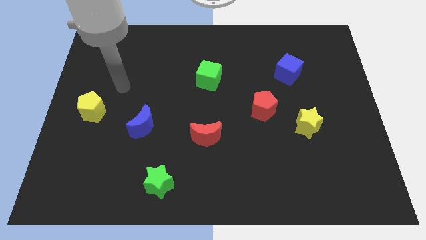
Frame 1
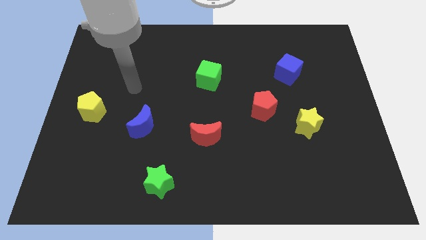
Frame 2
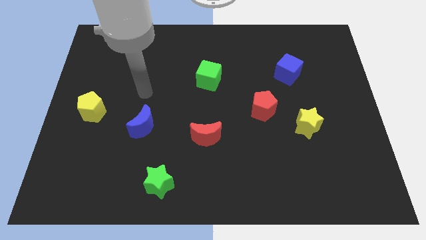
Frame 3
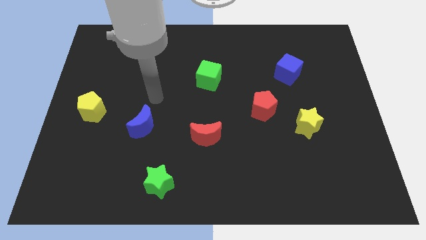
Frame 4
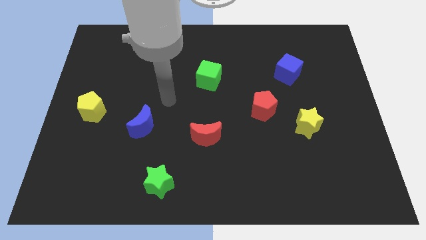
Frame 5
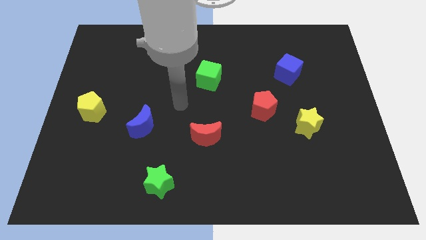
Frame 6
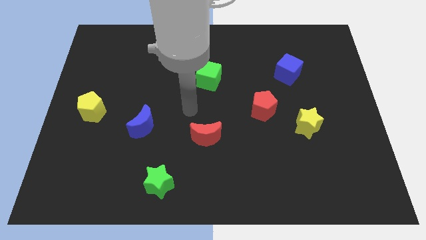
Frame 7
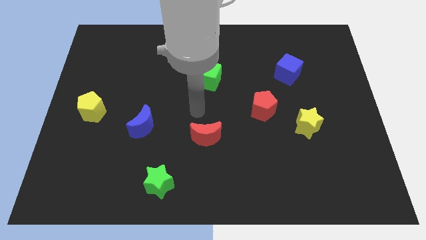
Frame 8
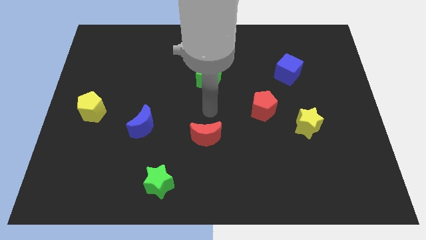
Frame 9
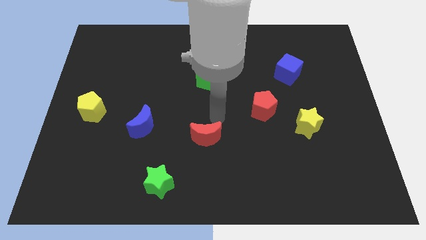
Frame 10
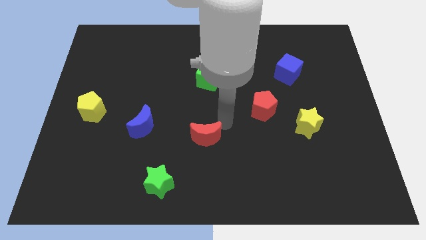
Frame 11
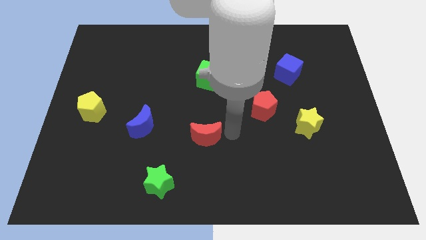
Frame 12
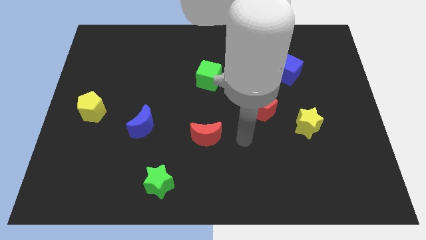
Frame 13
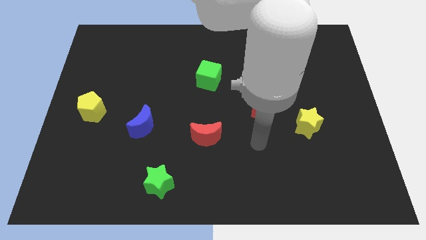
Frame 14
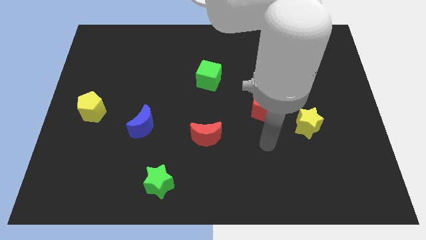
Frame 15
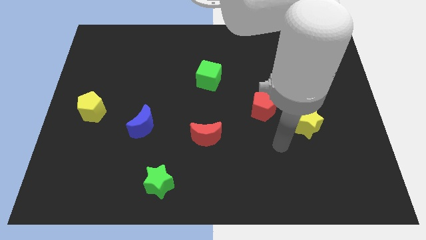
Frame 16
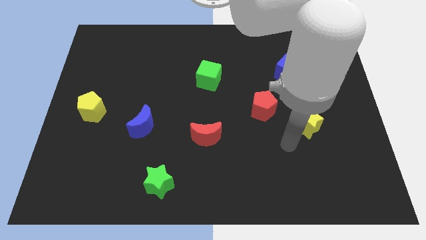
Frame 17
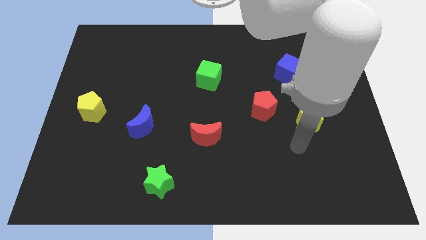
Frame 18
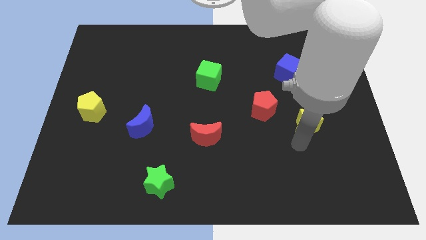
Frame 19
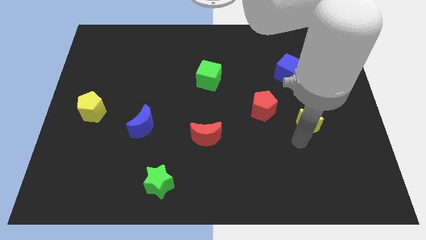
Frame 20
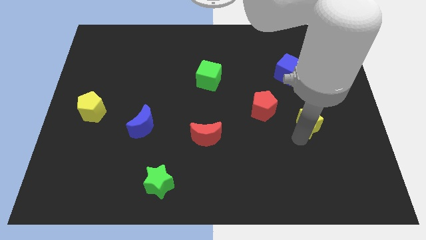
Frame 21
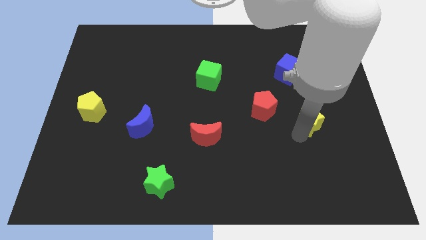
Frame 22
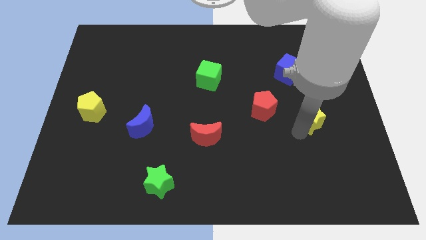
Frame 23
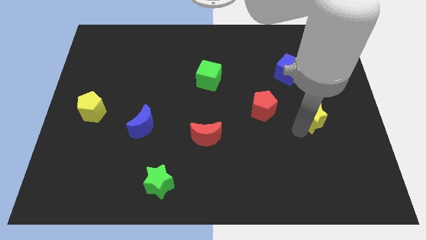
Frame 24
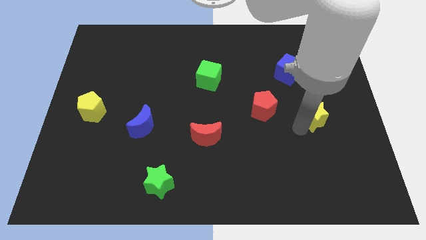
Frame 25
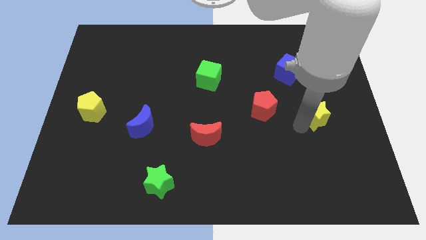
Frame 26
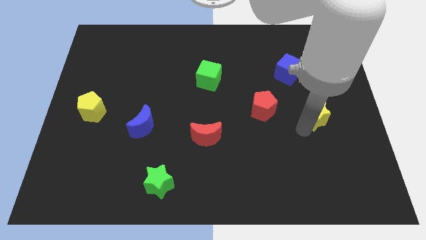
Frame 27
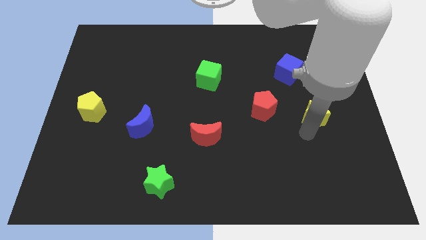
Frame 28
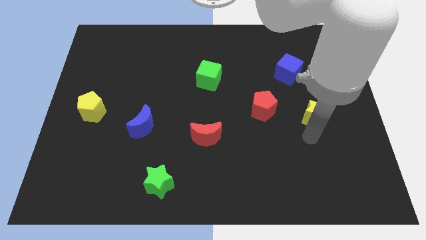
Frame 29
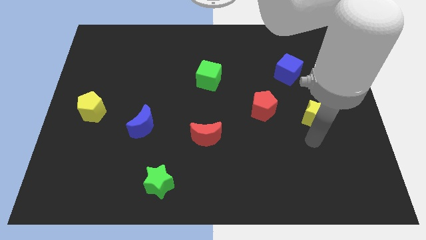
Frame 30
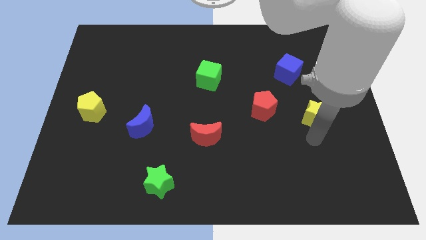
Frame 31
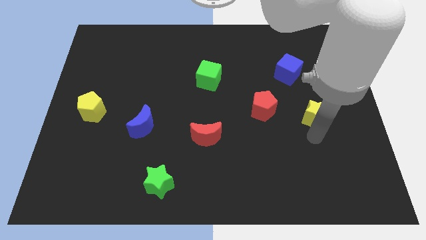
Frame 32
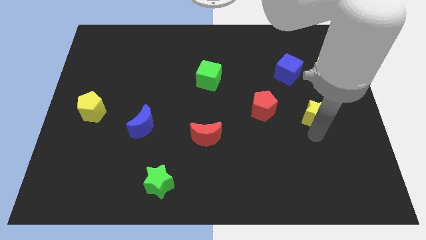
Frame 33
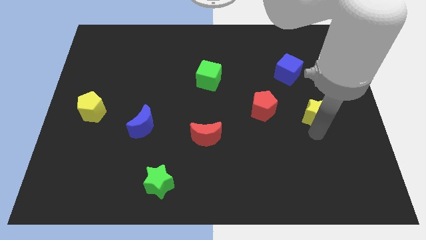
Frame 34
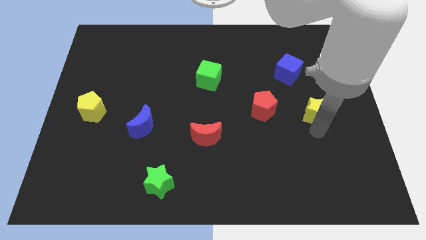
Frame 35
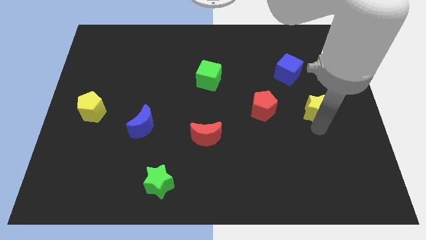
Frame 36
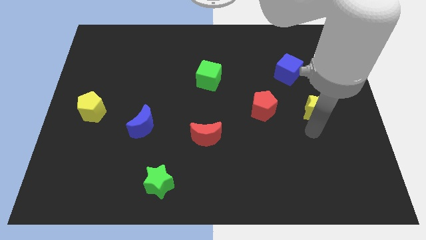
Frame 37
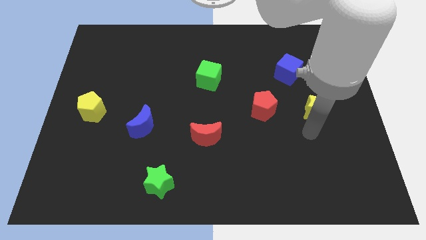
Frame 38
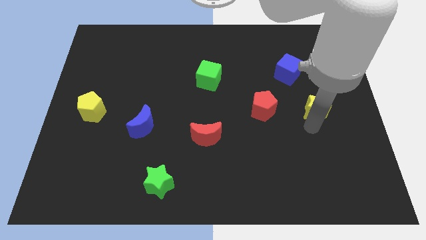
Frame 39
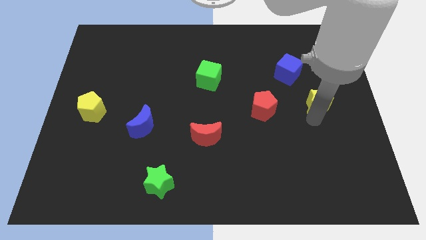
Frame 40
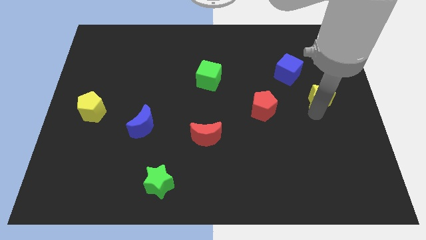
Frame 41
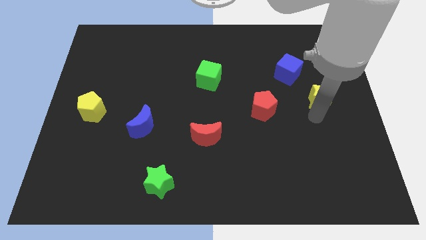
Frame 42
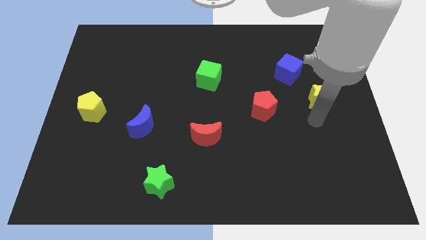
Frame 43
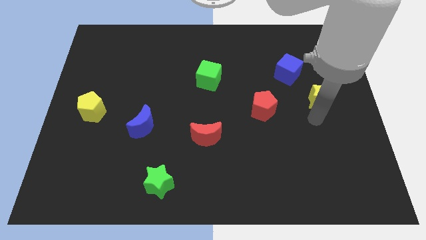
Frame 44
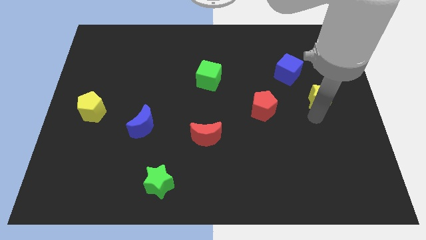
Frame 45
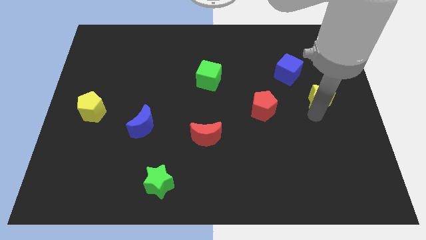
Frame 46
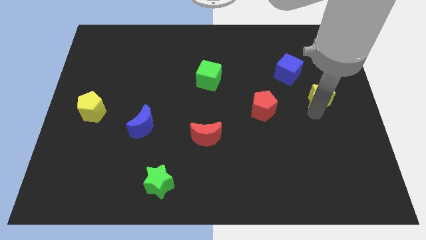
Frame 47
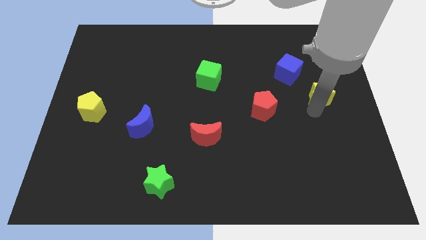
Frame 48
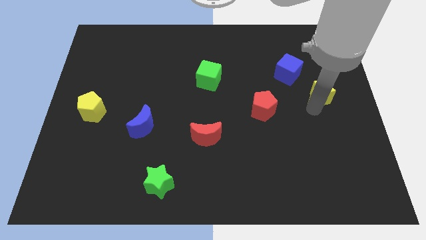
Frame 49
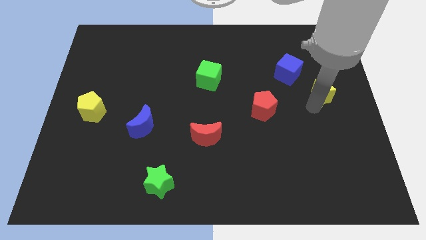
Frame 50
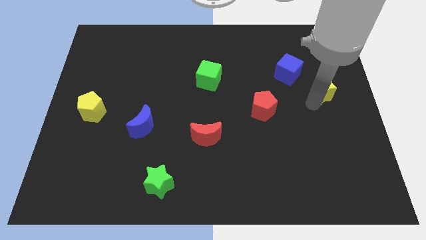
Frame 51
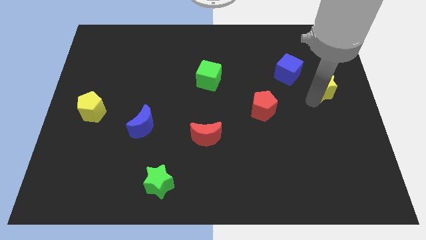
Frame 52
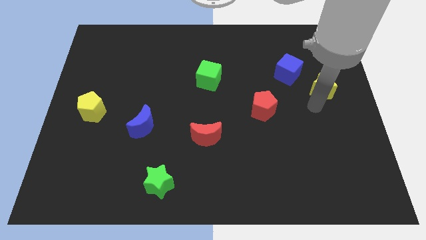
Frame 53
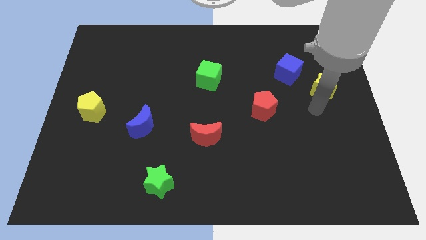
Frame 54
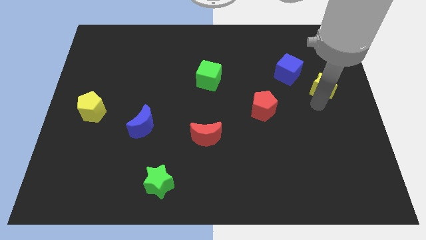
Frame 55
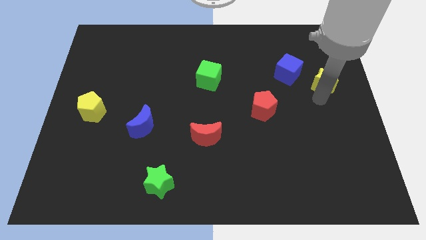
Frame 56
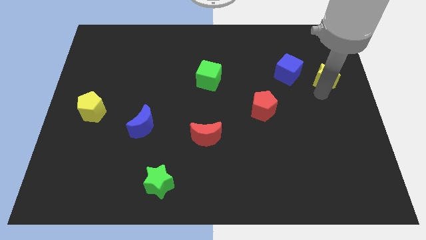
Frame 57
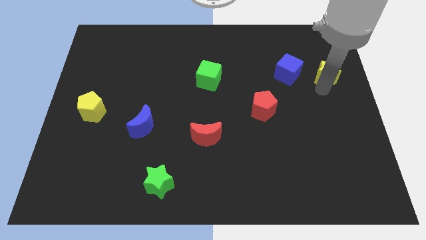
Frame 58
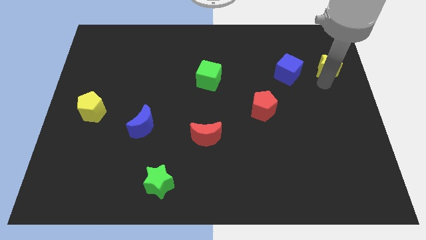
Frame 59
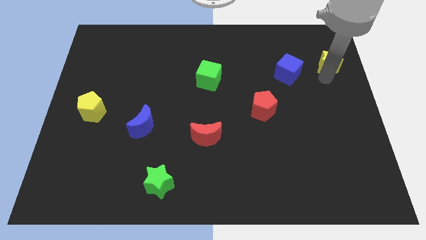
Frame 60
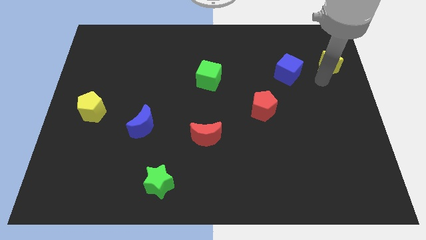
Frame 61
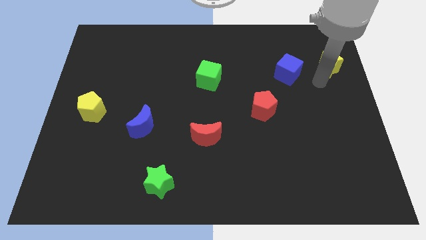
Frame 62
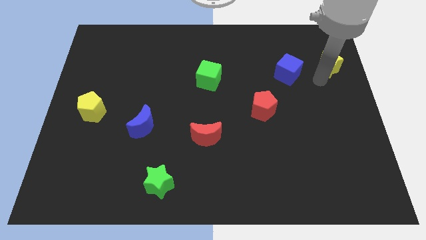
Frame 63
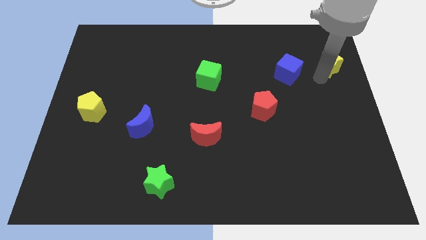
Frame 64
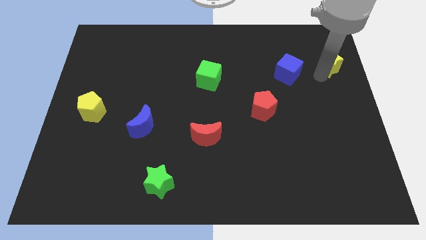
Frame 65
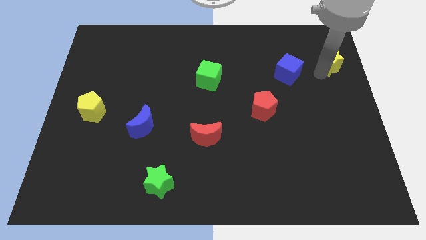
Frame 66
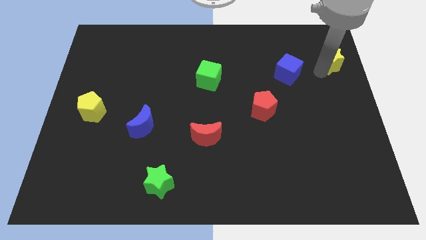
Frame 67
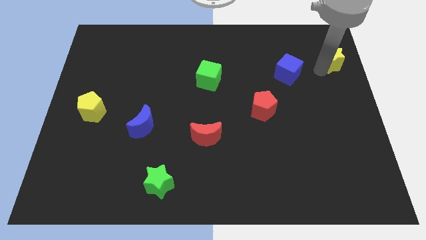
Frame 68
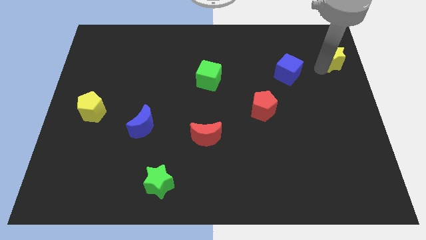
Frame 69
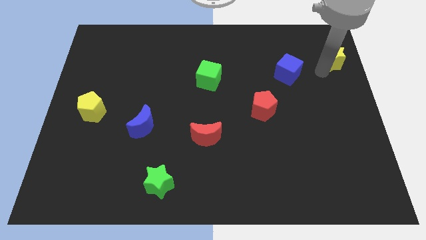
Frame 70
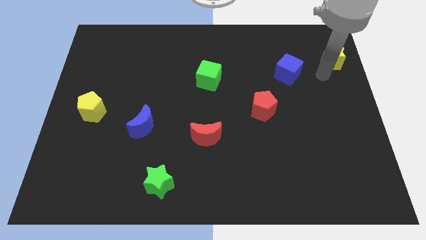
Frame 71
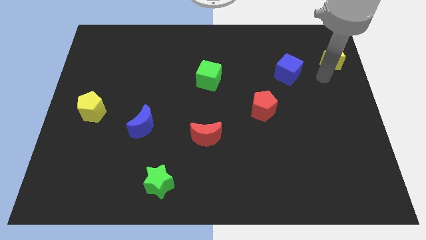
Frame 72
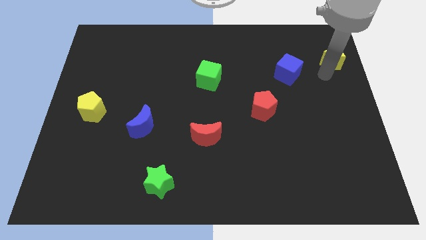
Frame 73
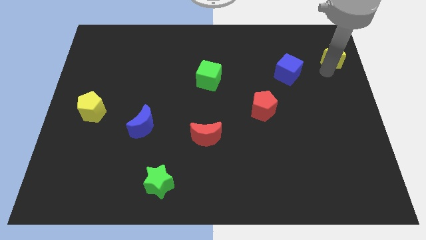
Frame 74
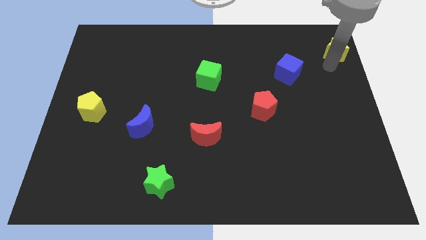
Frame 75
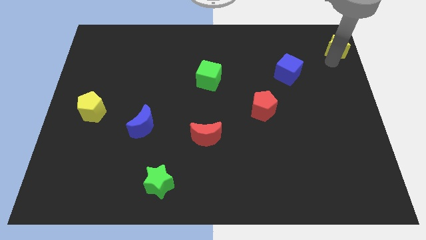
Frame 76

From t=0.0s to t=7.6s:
move the yellow star to the top right corner
